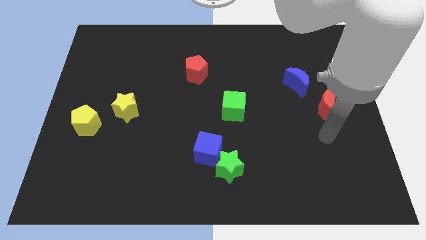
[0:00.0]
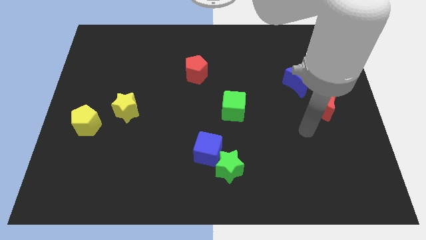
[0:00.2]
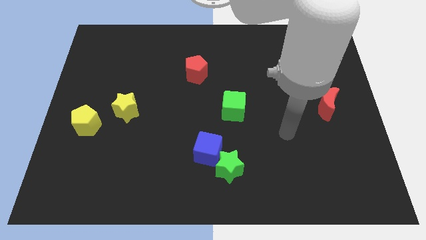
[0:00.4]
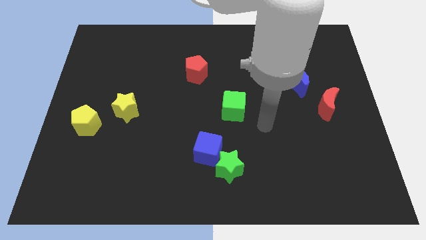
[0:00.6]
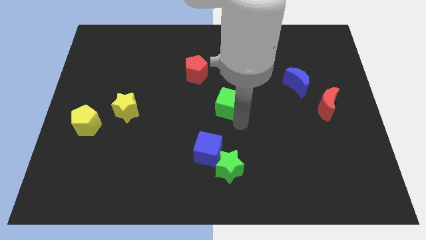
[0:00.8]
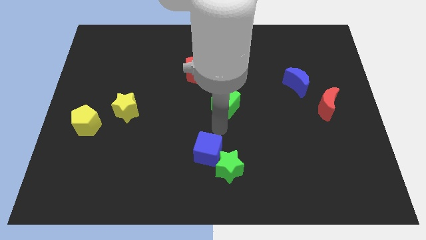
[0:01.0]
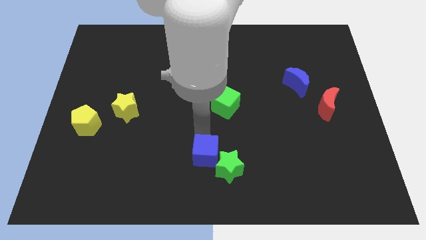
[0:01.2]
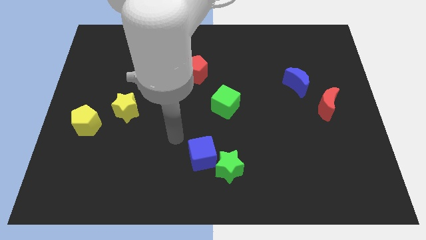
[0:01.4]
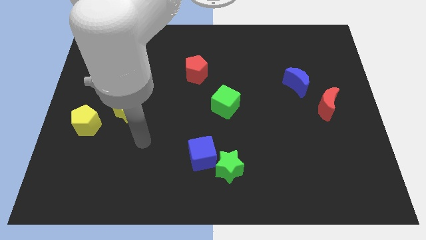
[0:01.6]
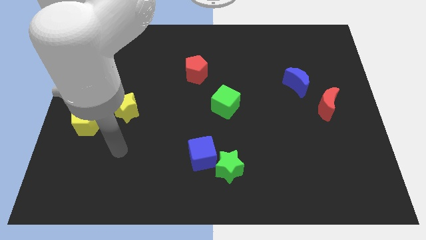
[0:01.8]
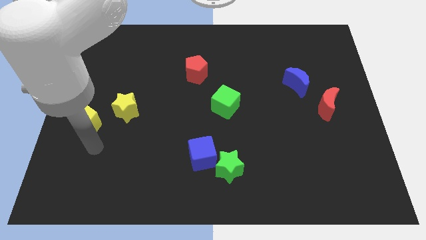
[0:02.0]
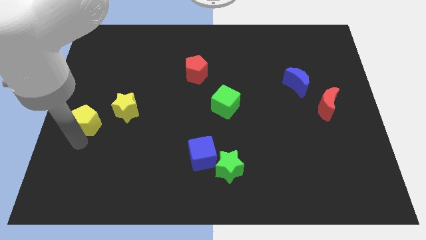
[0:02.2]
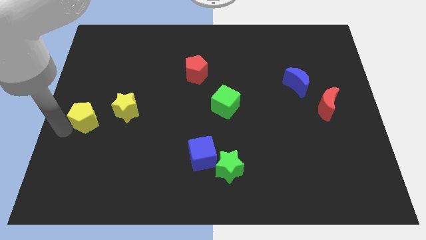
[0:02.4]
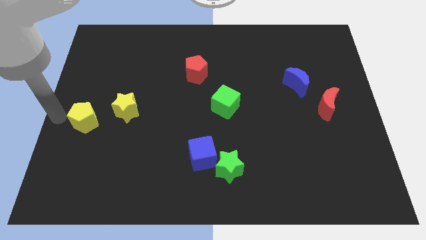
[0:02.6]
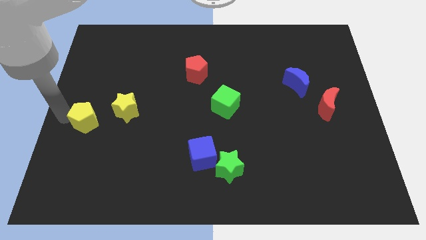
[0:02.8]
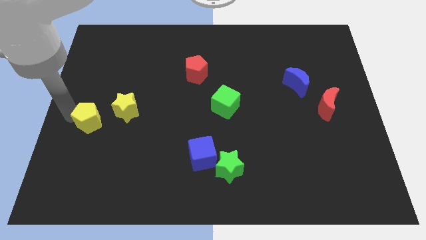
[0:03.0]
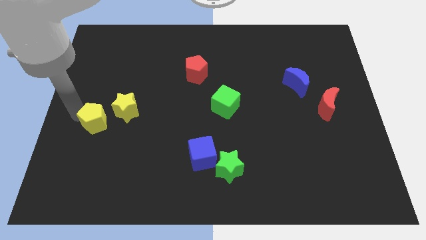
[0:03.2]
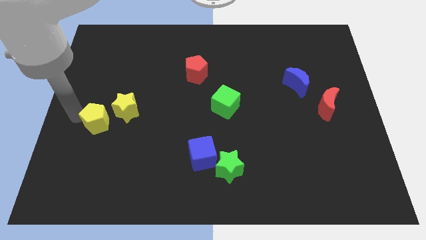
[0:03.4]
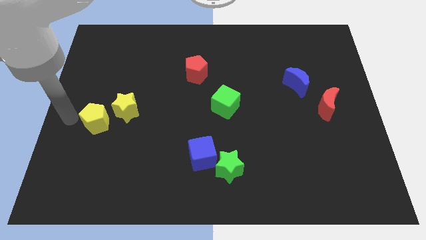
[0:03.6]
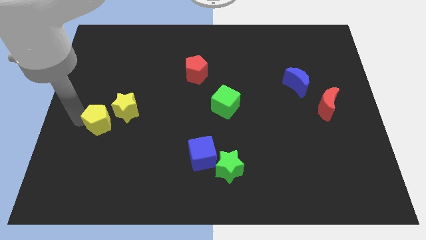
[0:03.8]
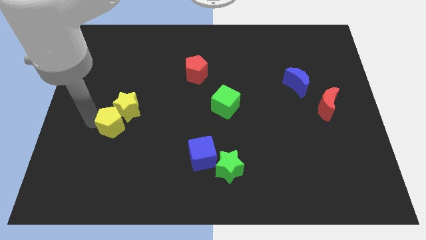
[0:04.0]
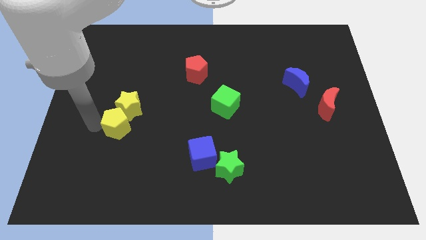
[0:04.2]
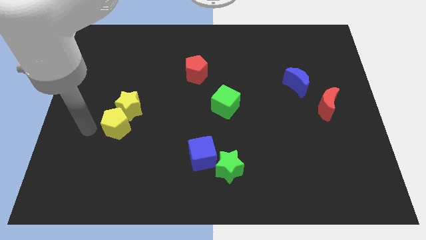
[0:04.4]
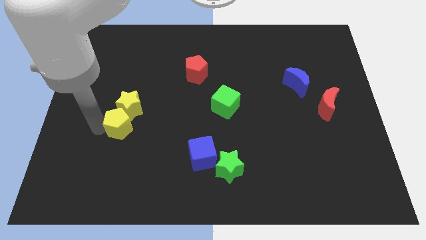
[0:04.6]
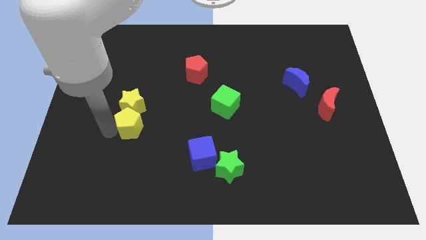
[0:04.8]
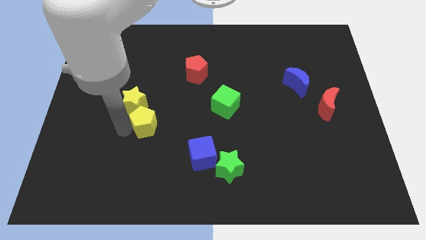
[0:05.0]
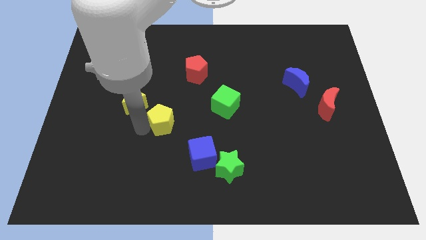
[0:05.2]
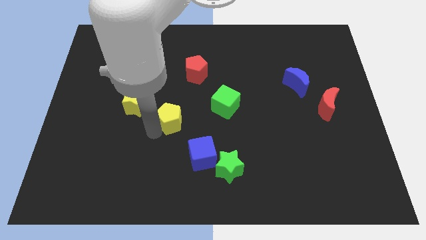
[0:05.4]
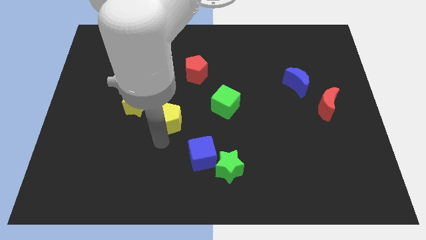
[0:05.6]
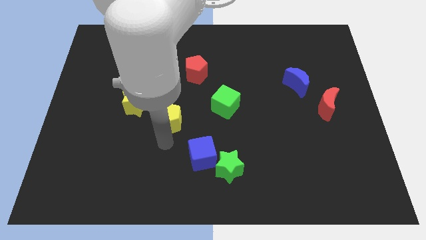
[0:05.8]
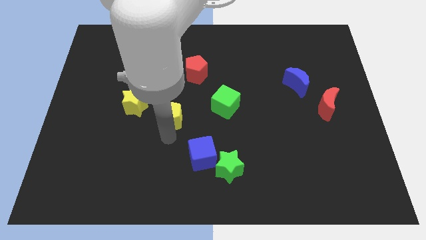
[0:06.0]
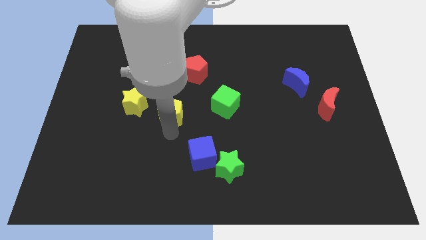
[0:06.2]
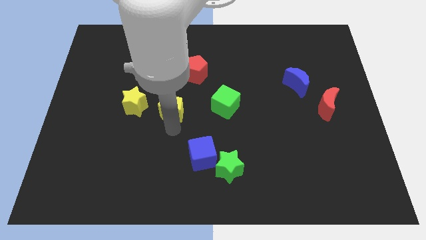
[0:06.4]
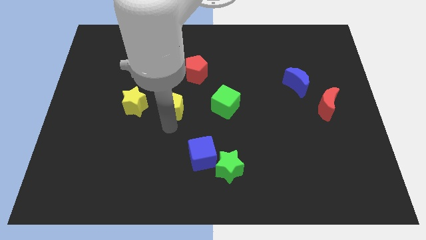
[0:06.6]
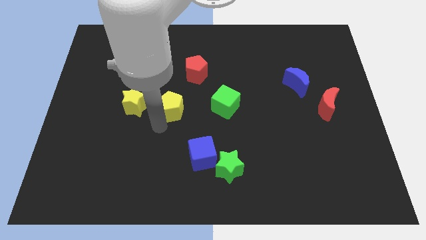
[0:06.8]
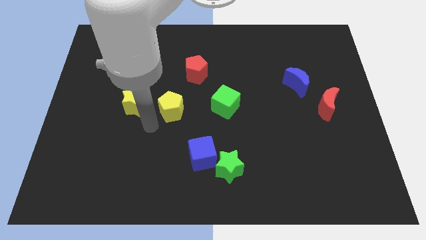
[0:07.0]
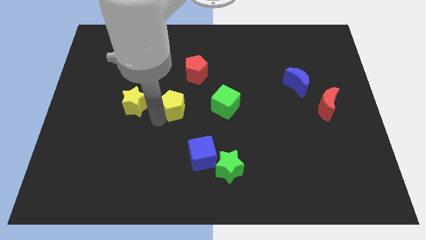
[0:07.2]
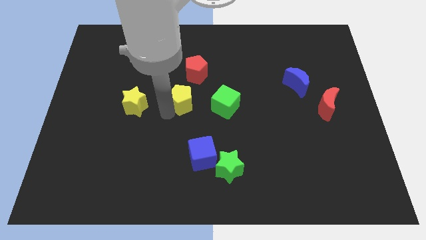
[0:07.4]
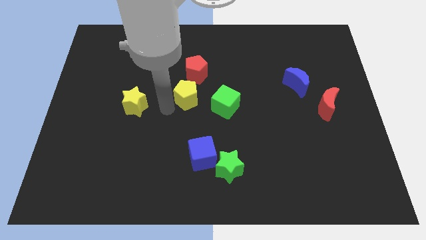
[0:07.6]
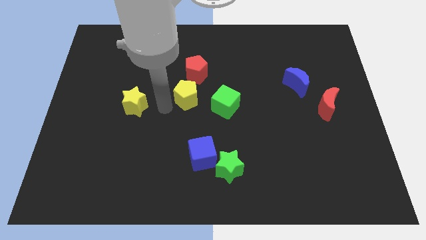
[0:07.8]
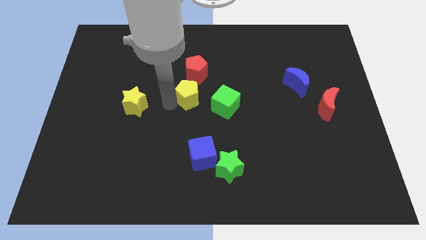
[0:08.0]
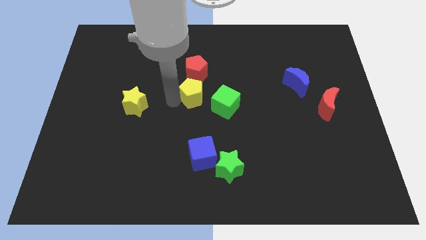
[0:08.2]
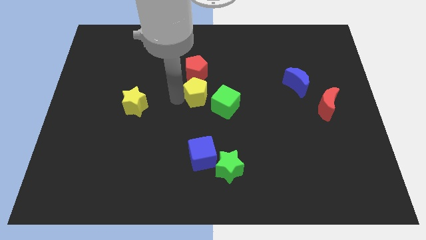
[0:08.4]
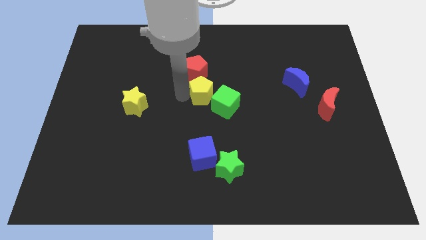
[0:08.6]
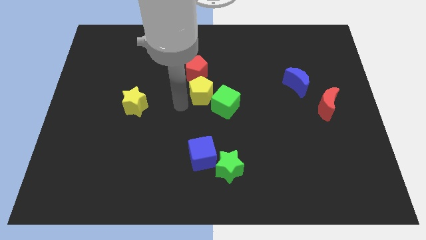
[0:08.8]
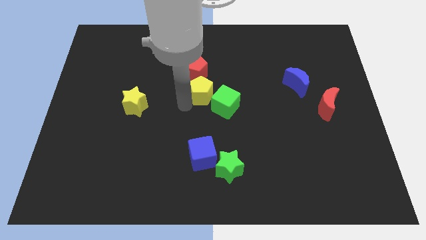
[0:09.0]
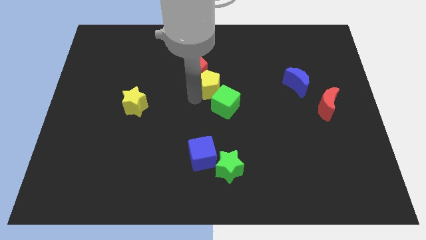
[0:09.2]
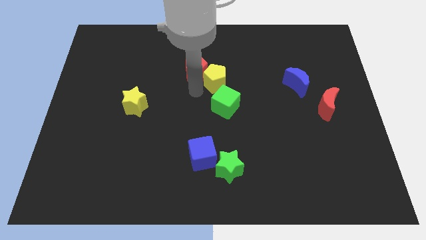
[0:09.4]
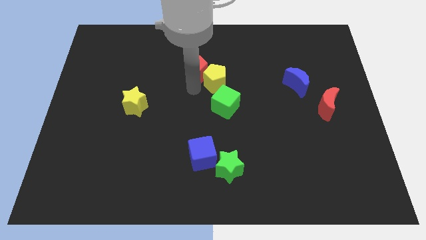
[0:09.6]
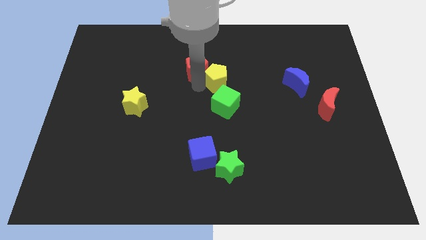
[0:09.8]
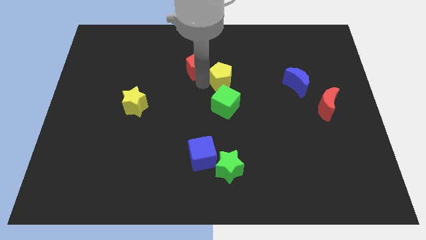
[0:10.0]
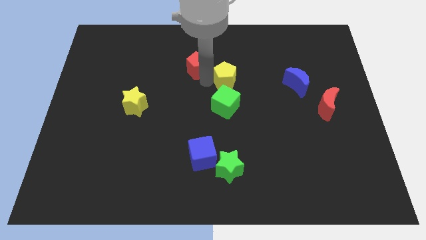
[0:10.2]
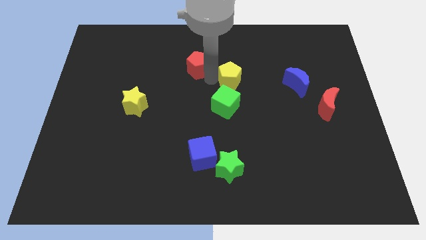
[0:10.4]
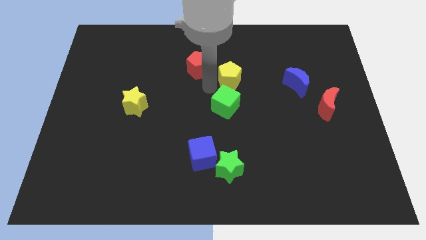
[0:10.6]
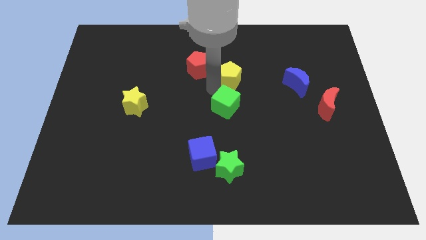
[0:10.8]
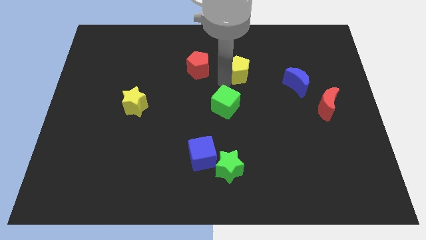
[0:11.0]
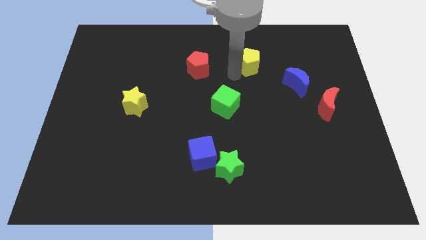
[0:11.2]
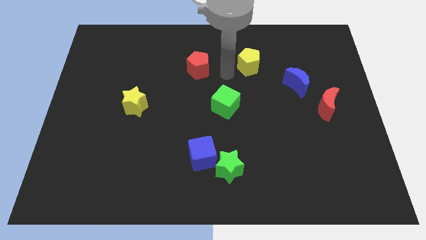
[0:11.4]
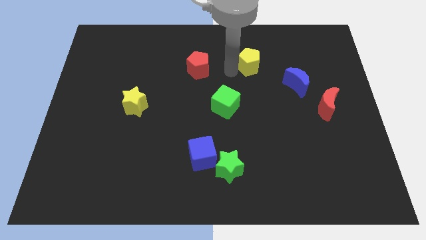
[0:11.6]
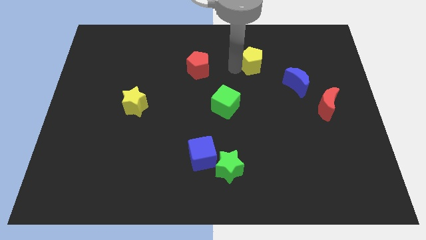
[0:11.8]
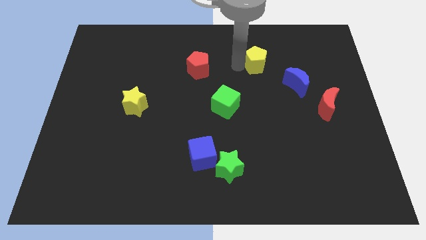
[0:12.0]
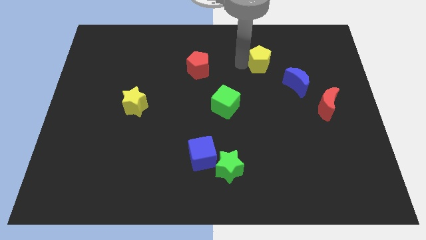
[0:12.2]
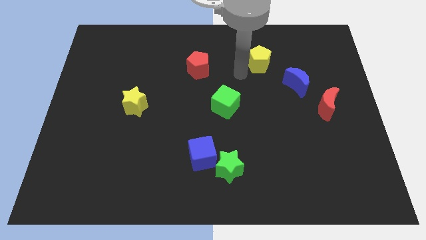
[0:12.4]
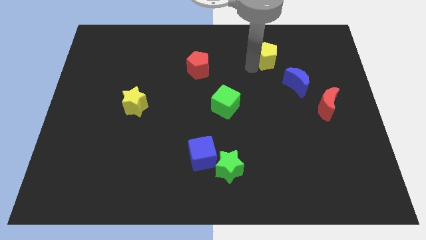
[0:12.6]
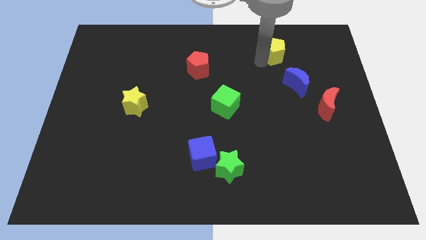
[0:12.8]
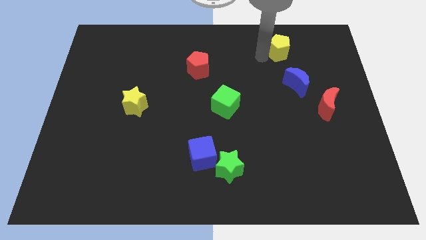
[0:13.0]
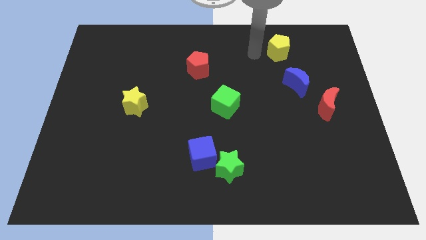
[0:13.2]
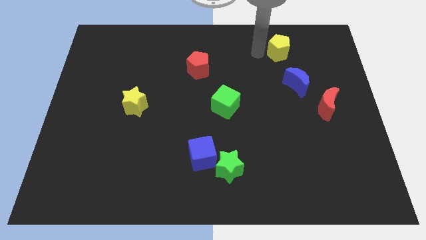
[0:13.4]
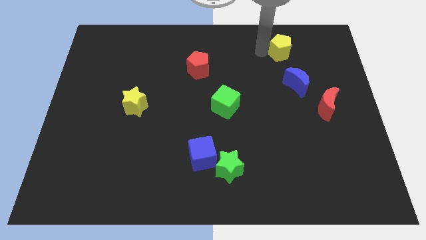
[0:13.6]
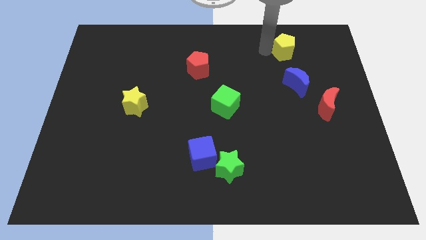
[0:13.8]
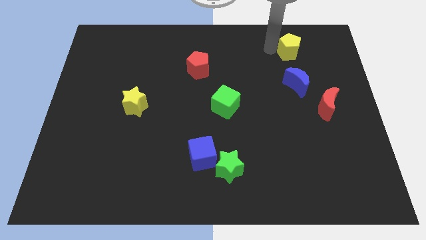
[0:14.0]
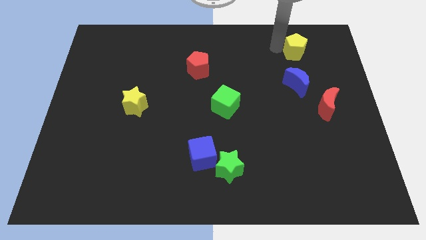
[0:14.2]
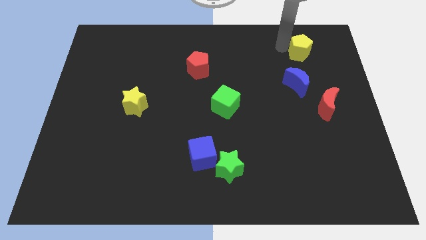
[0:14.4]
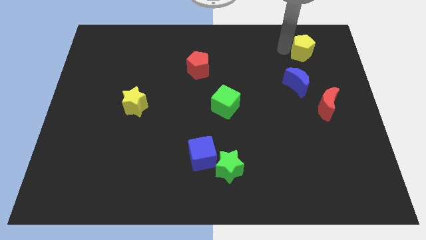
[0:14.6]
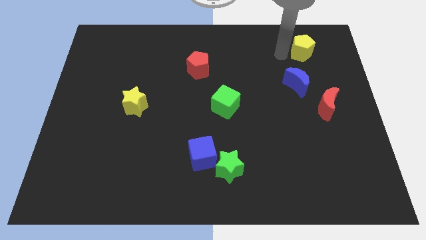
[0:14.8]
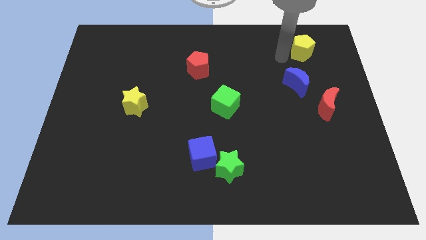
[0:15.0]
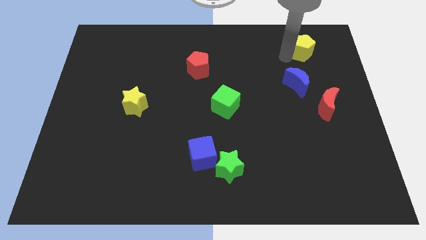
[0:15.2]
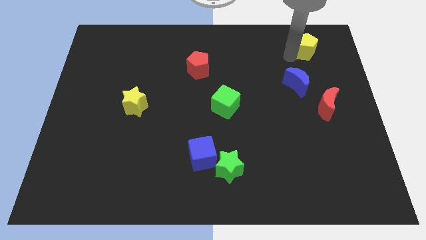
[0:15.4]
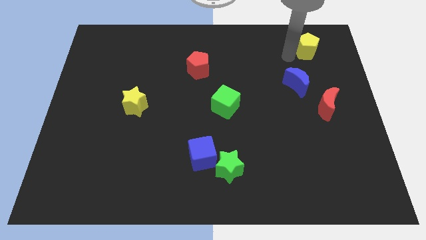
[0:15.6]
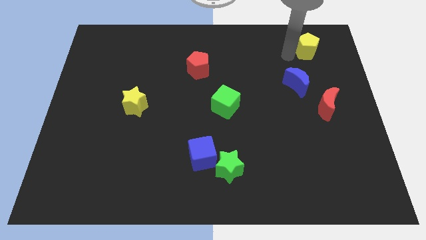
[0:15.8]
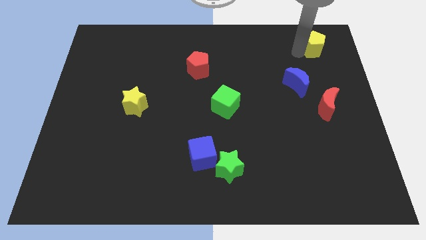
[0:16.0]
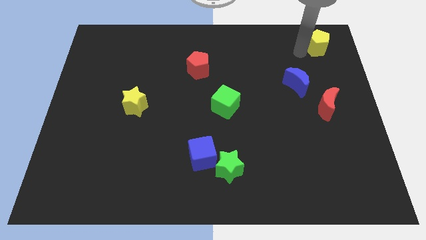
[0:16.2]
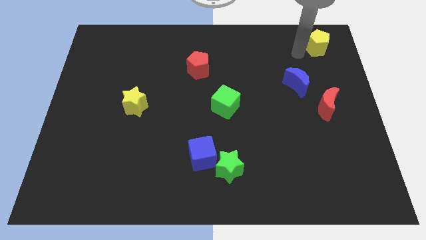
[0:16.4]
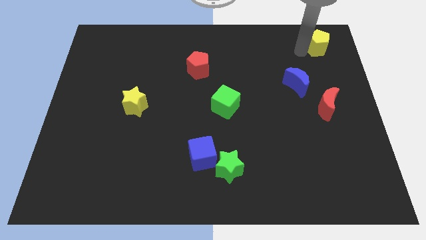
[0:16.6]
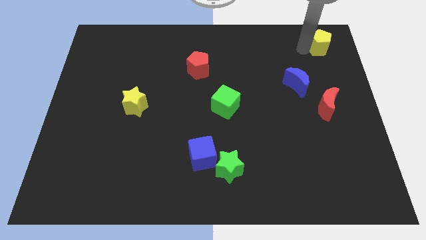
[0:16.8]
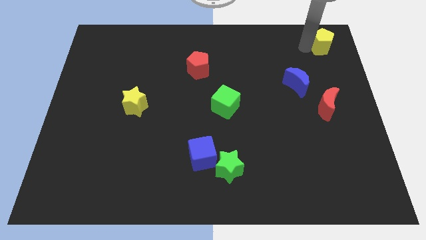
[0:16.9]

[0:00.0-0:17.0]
put the yellow pentagon to the top right
